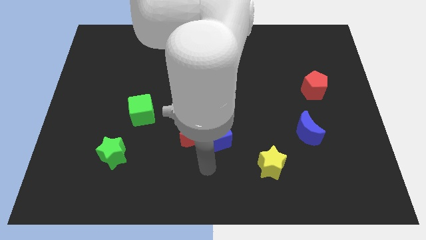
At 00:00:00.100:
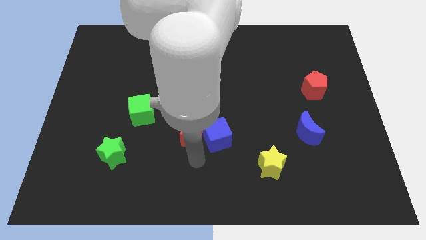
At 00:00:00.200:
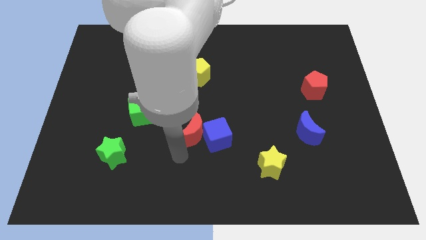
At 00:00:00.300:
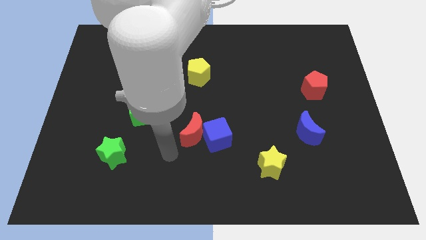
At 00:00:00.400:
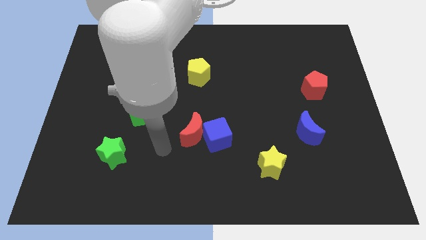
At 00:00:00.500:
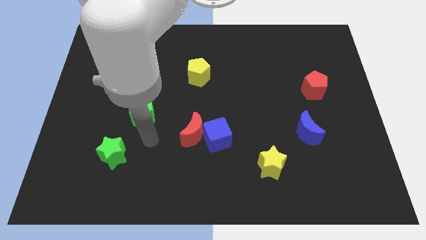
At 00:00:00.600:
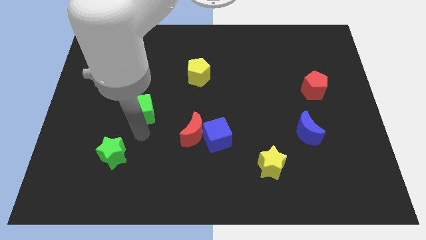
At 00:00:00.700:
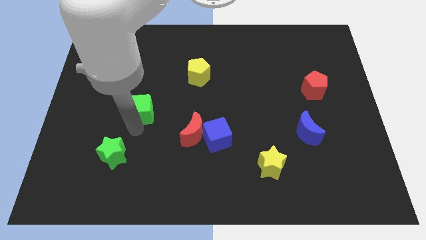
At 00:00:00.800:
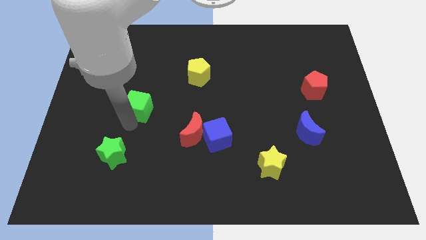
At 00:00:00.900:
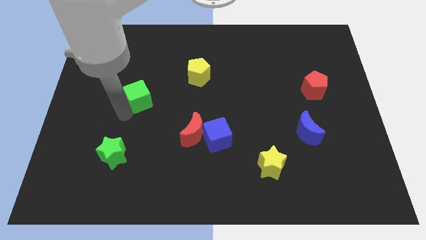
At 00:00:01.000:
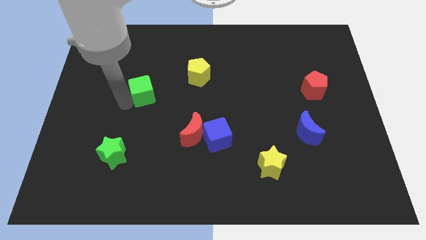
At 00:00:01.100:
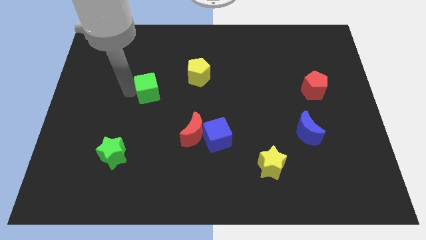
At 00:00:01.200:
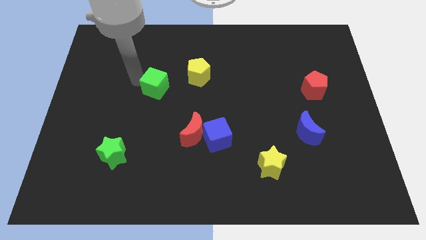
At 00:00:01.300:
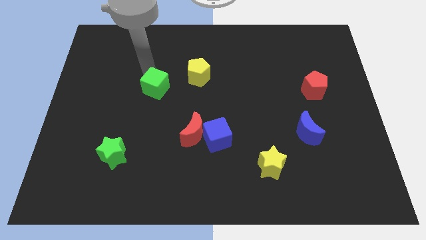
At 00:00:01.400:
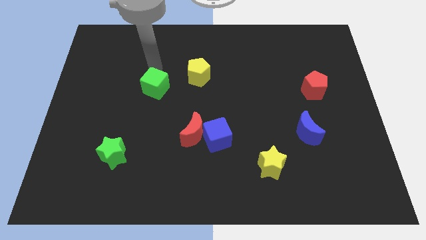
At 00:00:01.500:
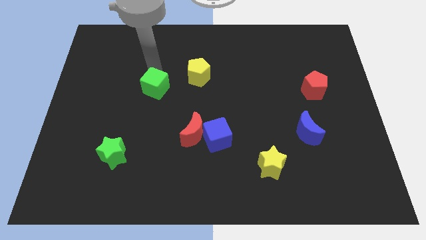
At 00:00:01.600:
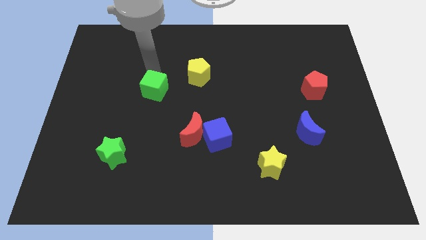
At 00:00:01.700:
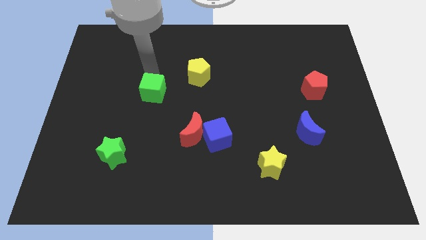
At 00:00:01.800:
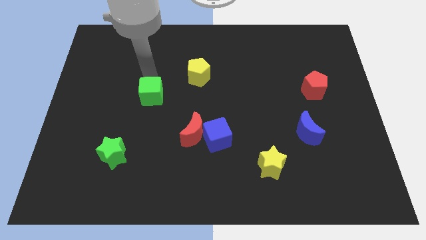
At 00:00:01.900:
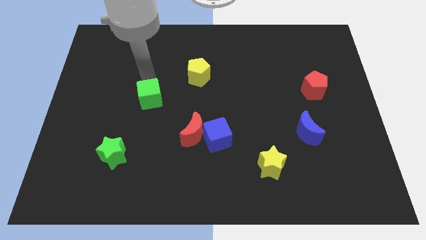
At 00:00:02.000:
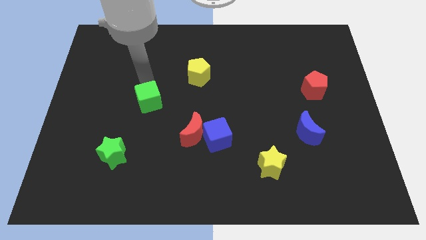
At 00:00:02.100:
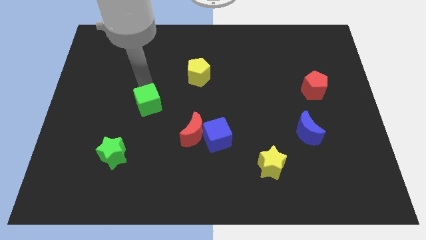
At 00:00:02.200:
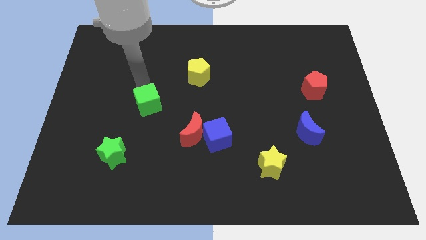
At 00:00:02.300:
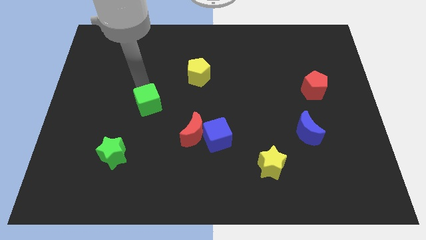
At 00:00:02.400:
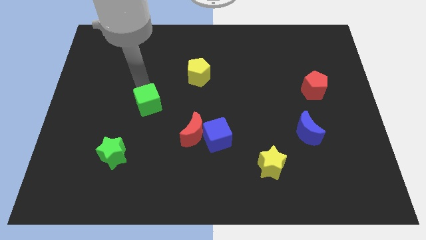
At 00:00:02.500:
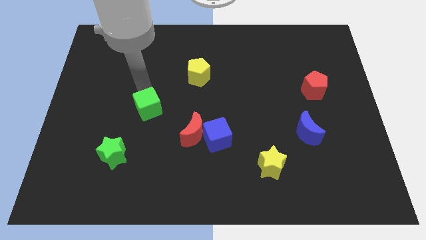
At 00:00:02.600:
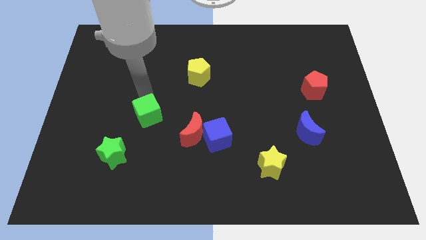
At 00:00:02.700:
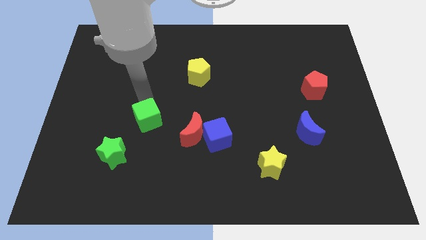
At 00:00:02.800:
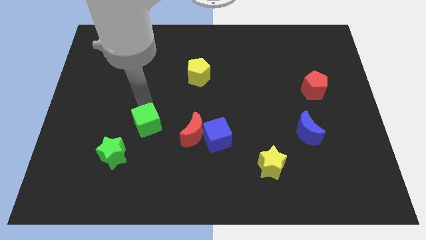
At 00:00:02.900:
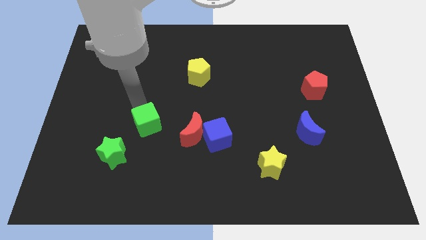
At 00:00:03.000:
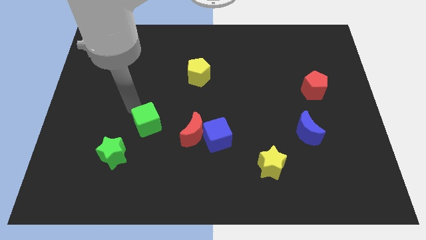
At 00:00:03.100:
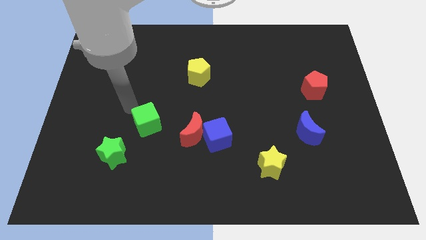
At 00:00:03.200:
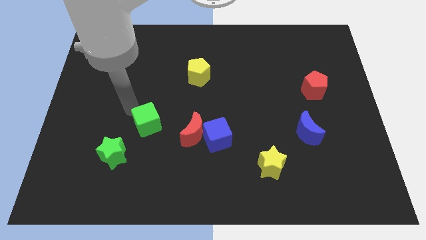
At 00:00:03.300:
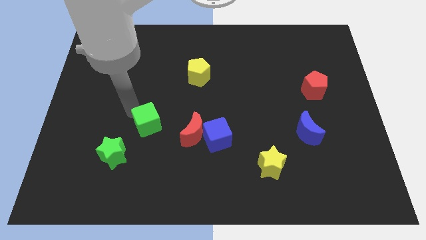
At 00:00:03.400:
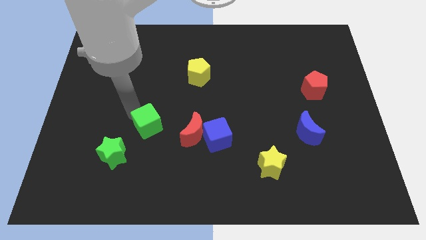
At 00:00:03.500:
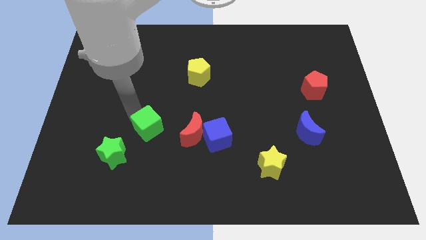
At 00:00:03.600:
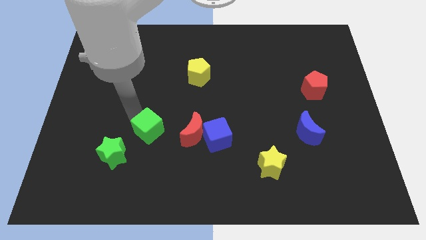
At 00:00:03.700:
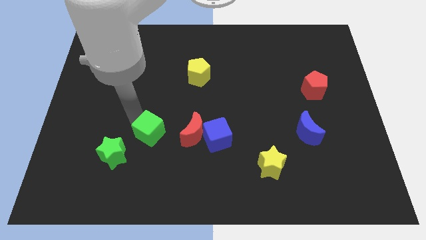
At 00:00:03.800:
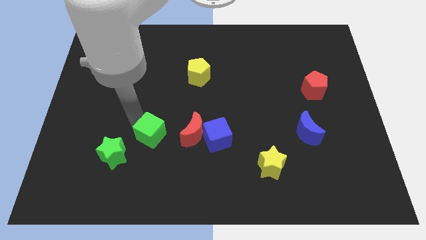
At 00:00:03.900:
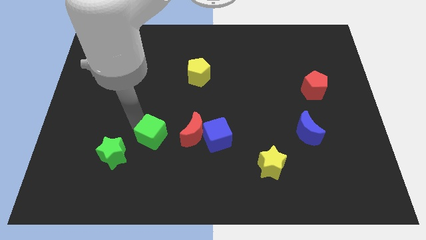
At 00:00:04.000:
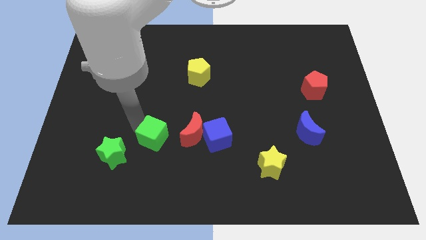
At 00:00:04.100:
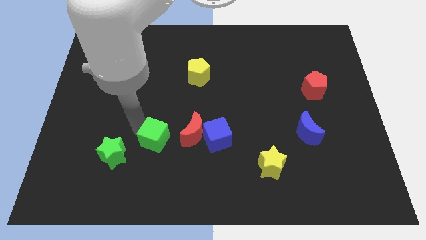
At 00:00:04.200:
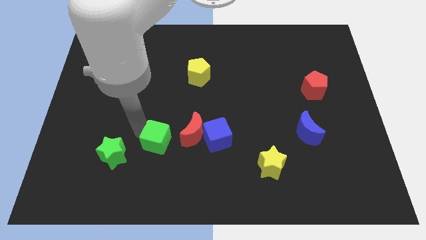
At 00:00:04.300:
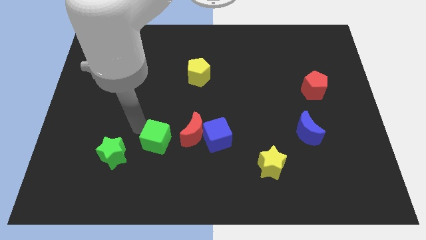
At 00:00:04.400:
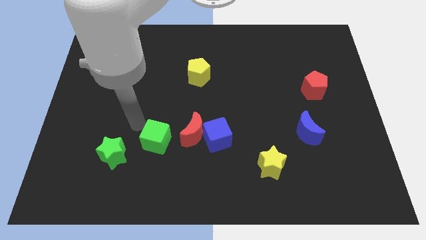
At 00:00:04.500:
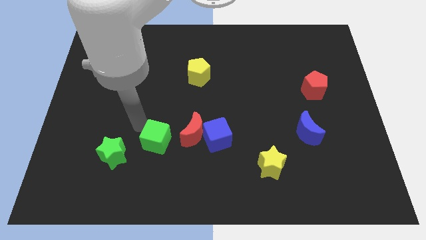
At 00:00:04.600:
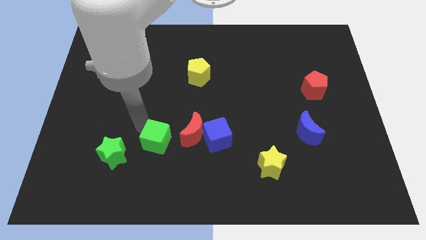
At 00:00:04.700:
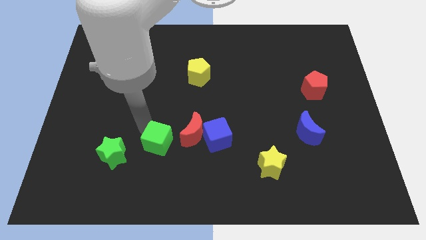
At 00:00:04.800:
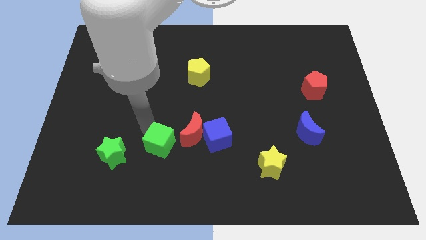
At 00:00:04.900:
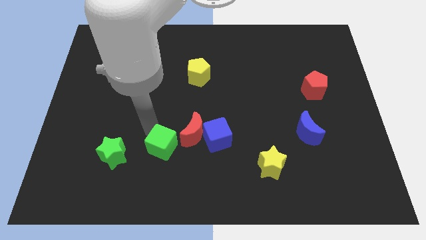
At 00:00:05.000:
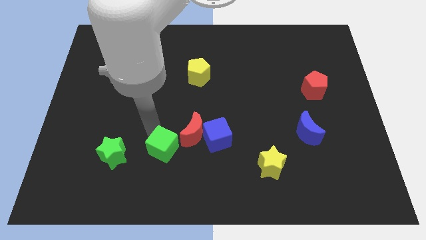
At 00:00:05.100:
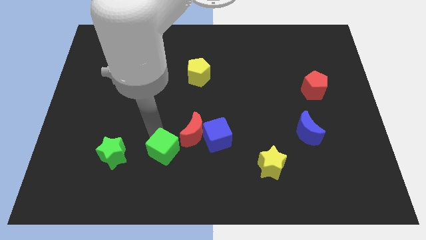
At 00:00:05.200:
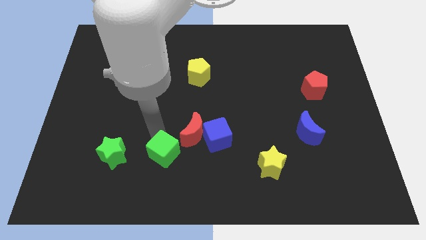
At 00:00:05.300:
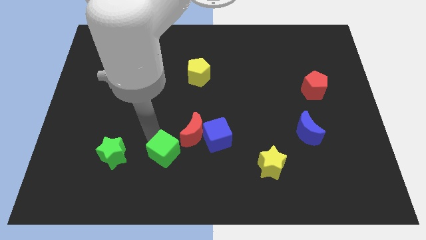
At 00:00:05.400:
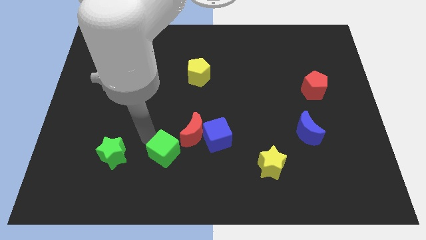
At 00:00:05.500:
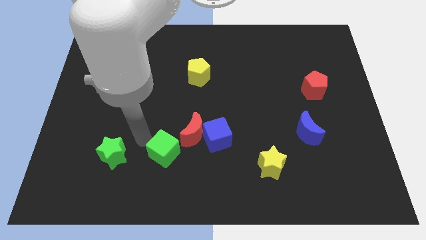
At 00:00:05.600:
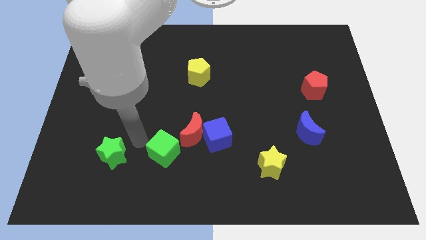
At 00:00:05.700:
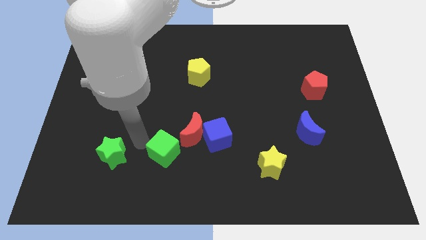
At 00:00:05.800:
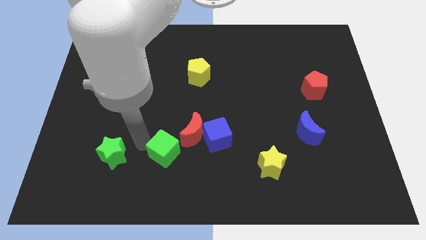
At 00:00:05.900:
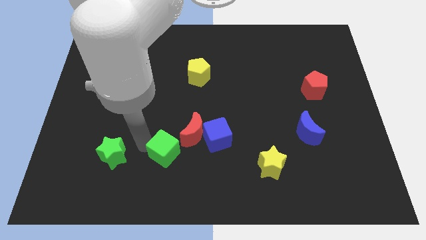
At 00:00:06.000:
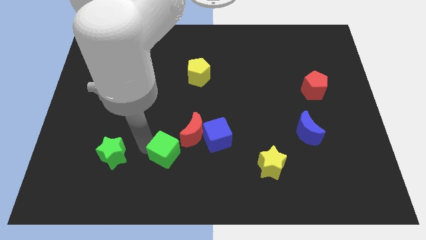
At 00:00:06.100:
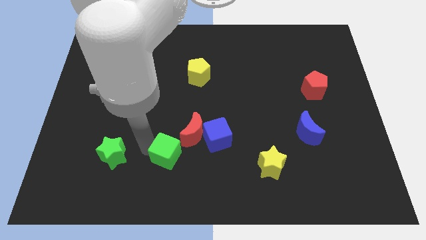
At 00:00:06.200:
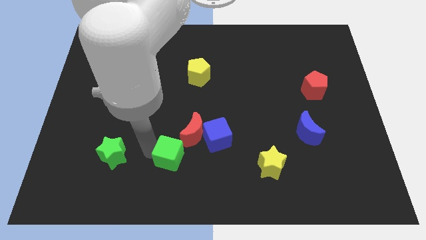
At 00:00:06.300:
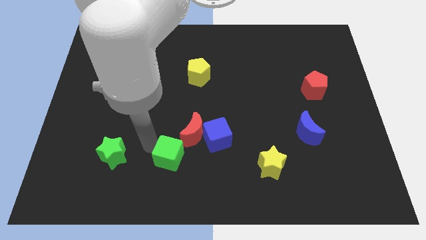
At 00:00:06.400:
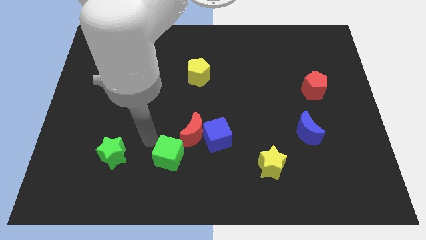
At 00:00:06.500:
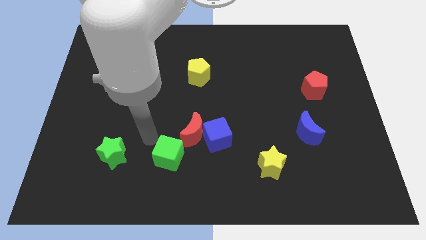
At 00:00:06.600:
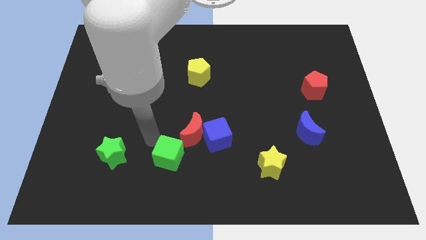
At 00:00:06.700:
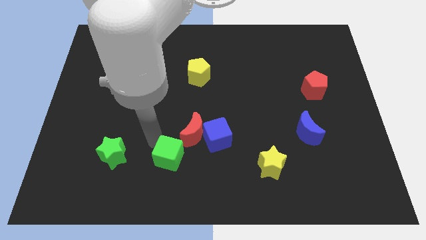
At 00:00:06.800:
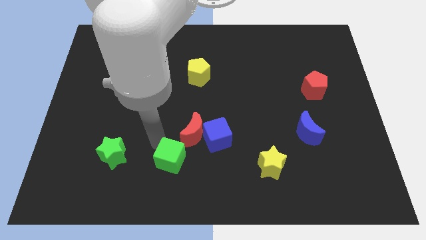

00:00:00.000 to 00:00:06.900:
move the green cube to the bottom side of the red moon

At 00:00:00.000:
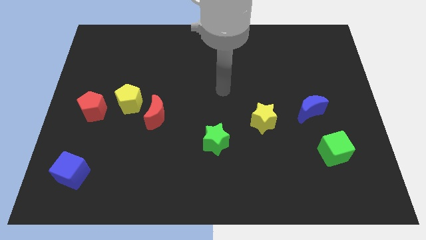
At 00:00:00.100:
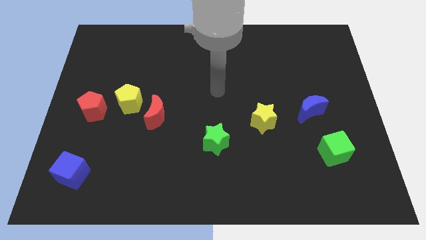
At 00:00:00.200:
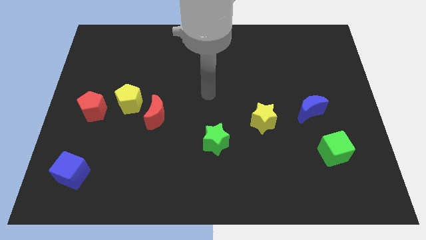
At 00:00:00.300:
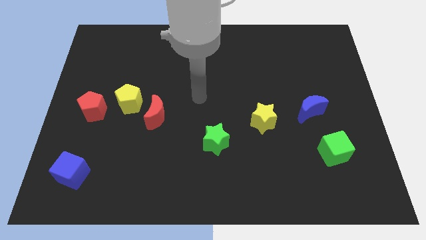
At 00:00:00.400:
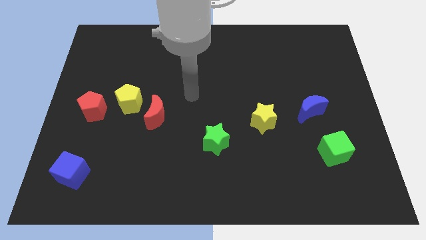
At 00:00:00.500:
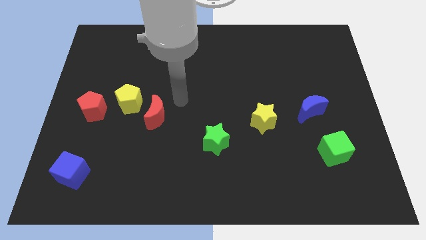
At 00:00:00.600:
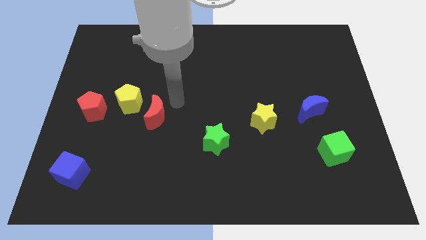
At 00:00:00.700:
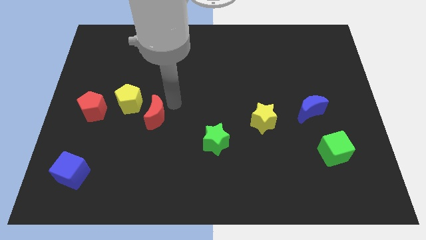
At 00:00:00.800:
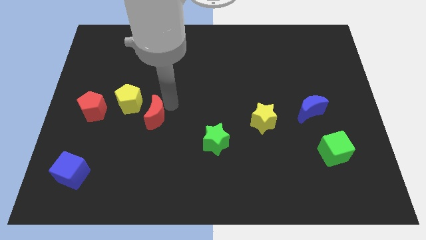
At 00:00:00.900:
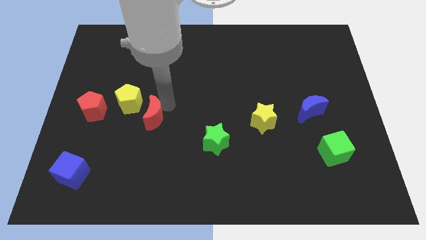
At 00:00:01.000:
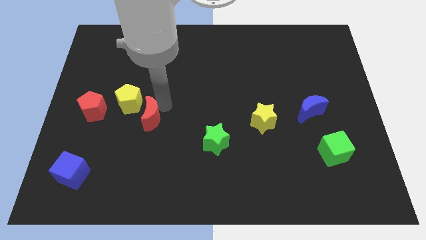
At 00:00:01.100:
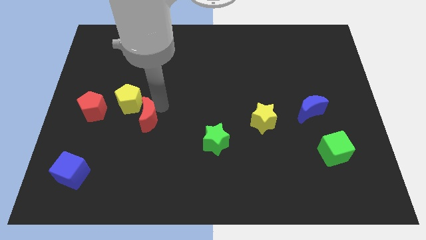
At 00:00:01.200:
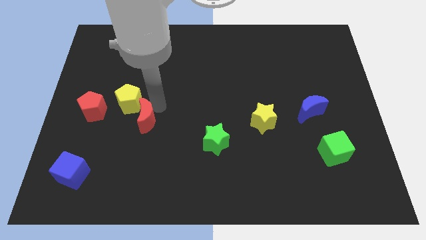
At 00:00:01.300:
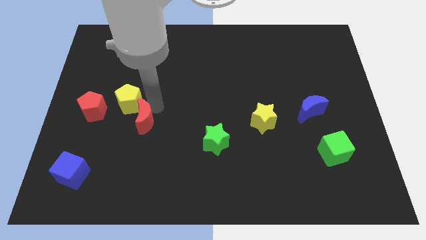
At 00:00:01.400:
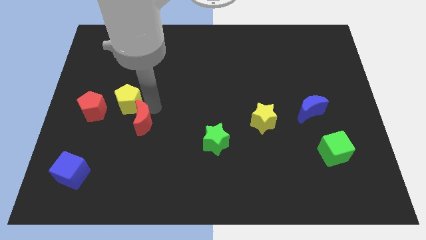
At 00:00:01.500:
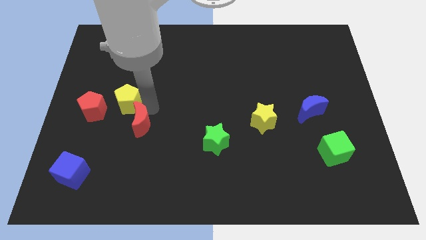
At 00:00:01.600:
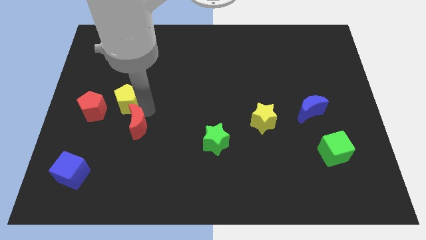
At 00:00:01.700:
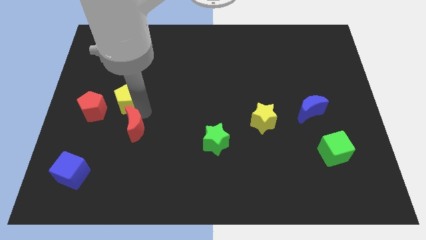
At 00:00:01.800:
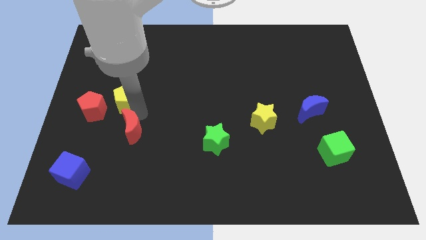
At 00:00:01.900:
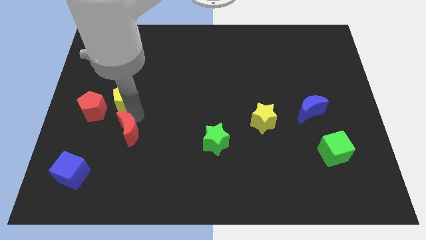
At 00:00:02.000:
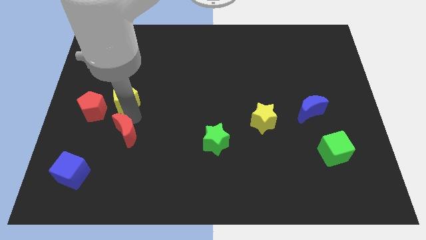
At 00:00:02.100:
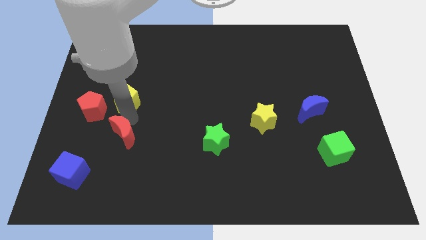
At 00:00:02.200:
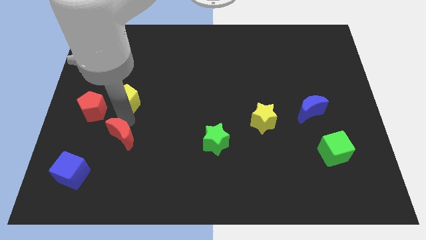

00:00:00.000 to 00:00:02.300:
move the red moon to the top right side of the blue cube
